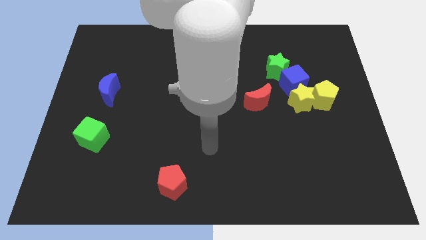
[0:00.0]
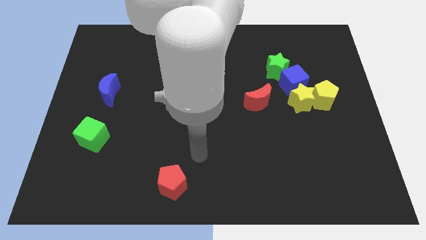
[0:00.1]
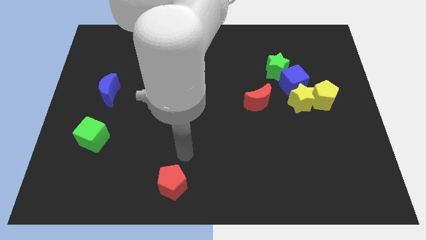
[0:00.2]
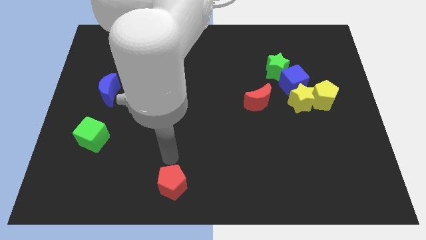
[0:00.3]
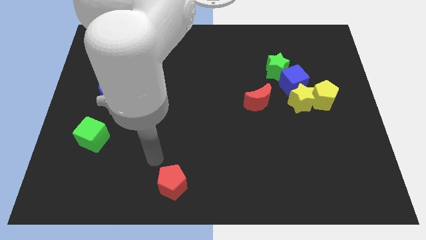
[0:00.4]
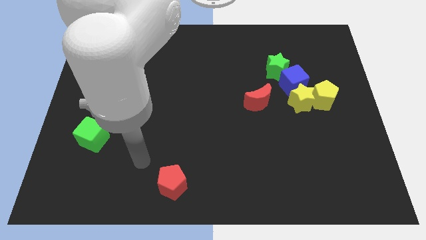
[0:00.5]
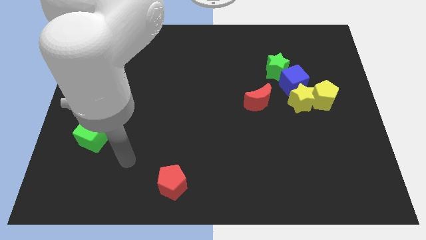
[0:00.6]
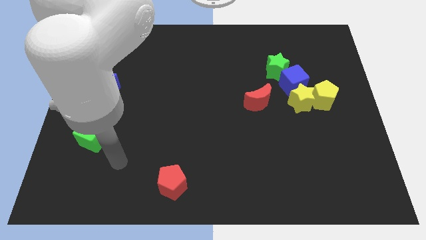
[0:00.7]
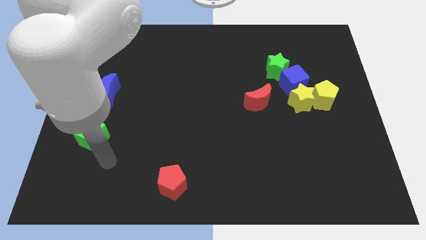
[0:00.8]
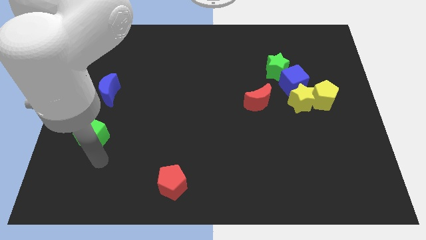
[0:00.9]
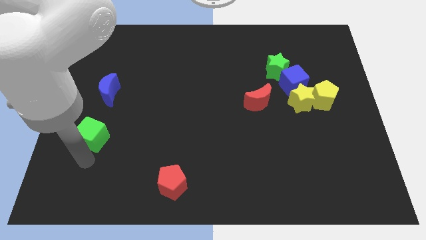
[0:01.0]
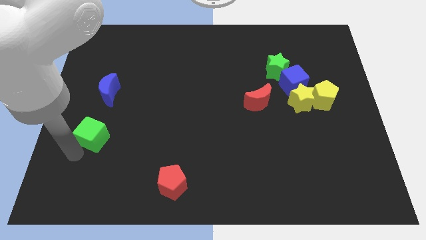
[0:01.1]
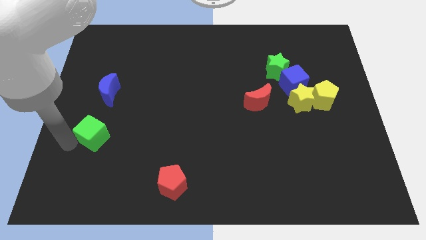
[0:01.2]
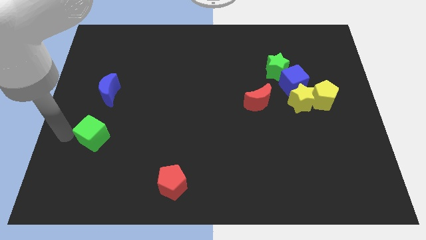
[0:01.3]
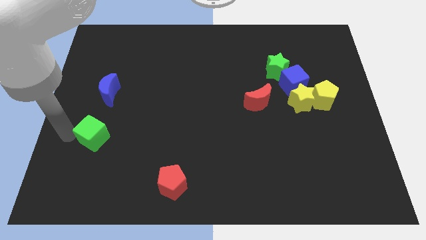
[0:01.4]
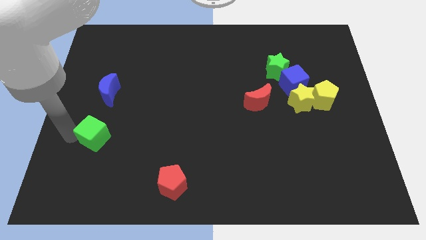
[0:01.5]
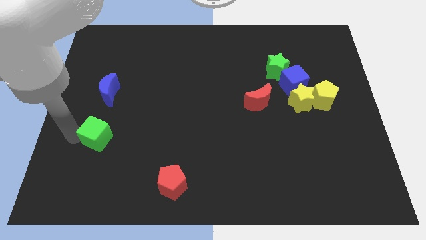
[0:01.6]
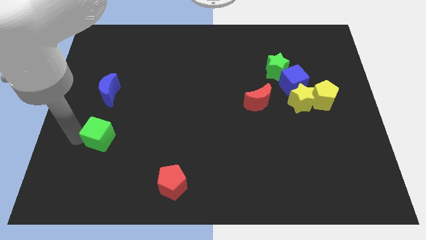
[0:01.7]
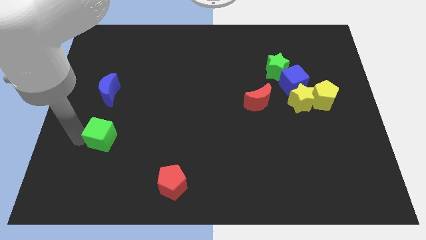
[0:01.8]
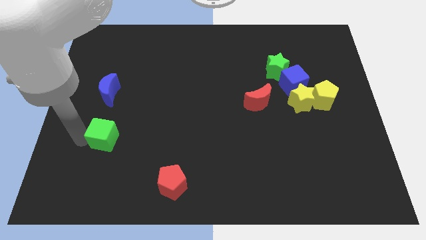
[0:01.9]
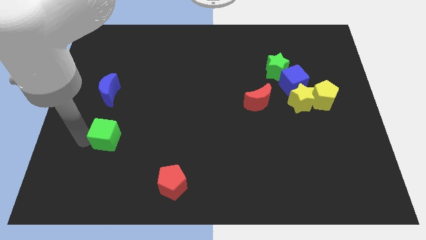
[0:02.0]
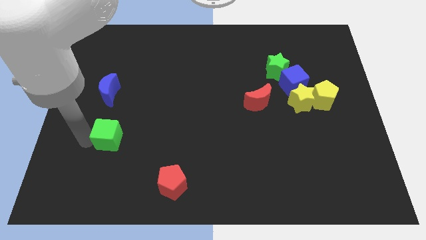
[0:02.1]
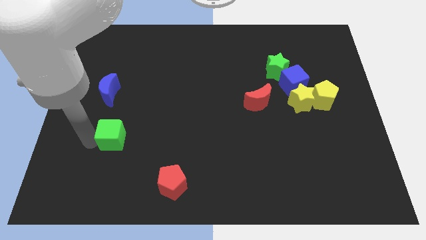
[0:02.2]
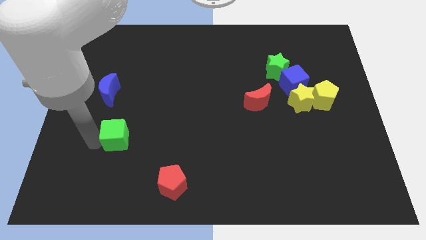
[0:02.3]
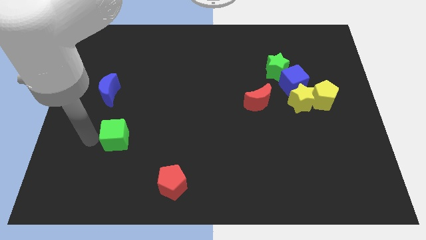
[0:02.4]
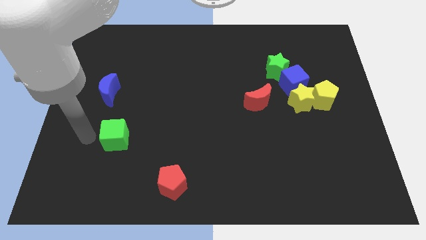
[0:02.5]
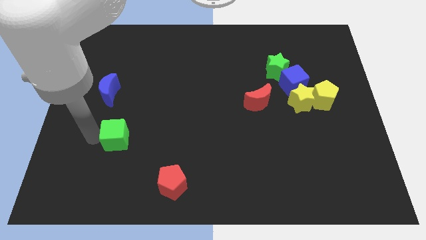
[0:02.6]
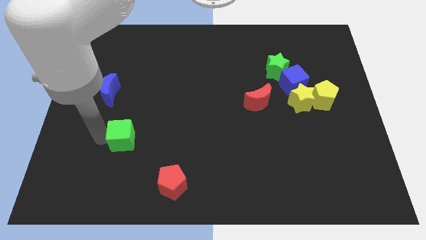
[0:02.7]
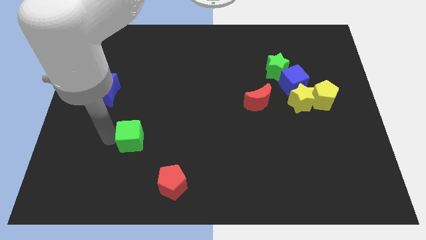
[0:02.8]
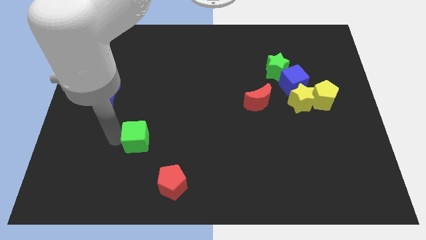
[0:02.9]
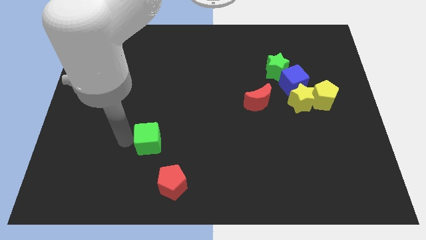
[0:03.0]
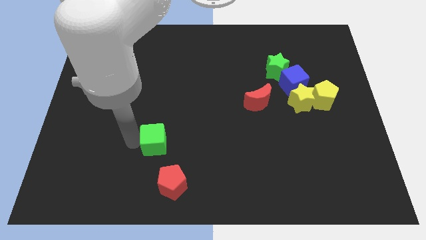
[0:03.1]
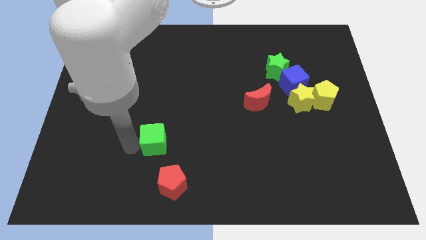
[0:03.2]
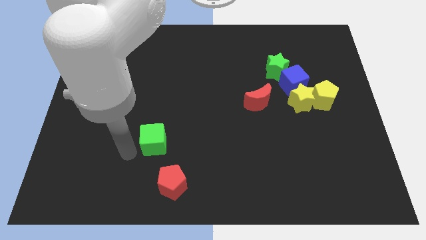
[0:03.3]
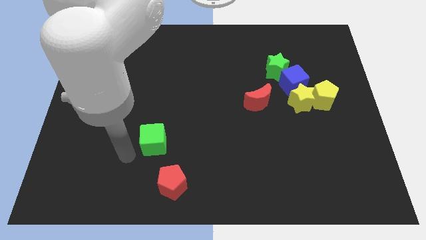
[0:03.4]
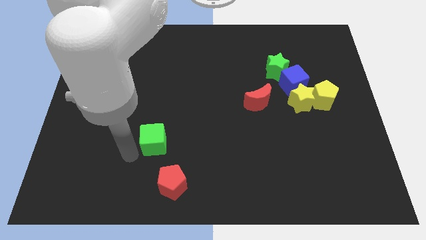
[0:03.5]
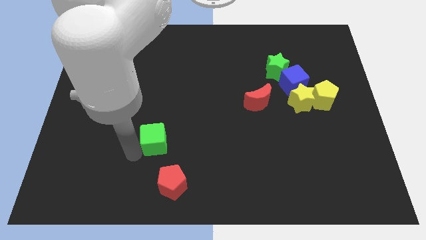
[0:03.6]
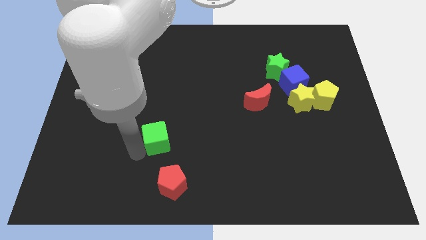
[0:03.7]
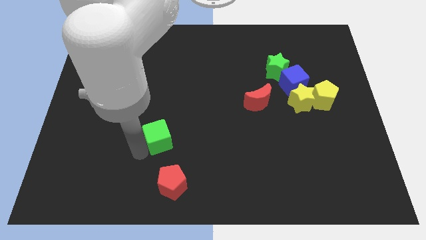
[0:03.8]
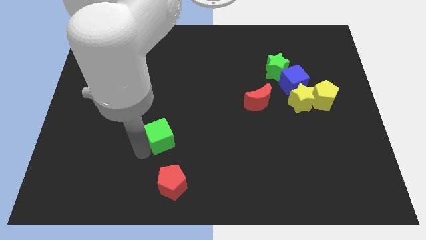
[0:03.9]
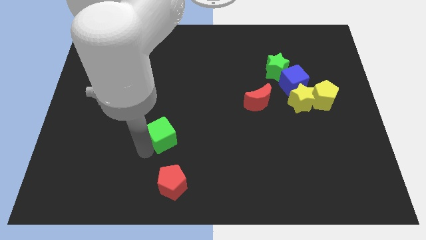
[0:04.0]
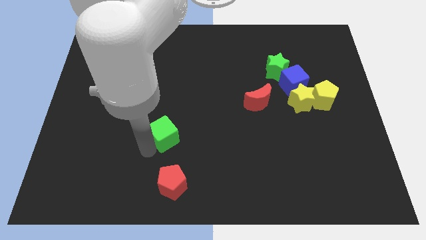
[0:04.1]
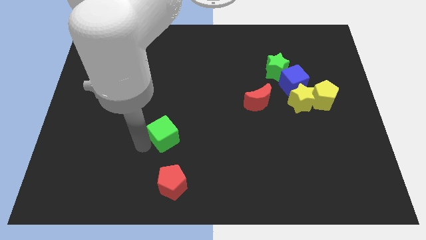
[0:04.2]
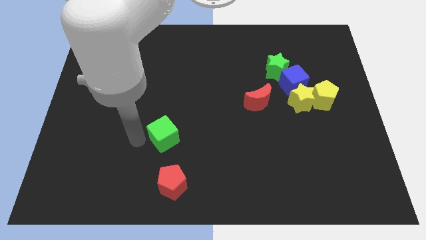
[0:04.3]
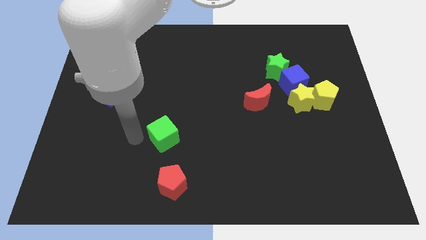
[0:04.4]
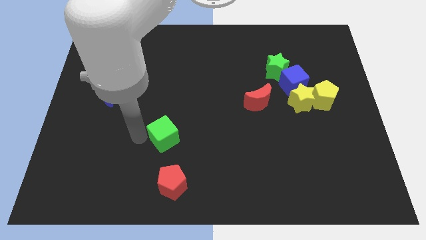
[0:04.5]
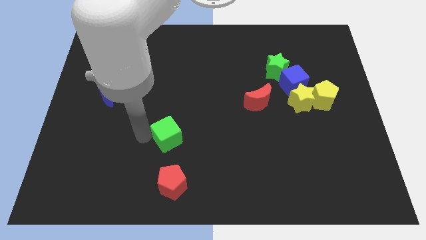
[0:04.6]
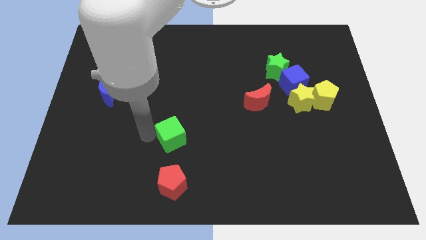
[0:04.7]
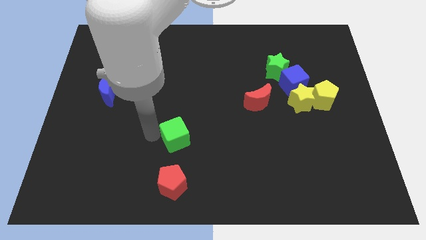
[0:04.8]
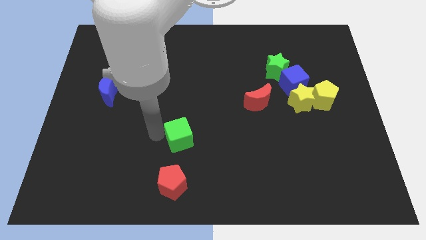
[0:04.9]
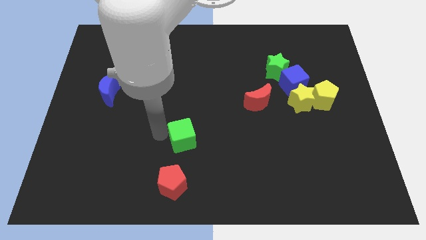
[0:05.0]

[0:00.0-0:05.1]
move the green cube right

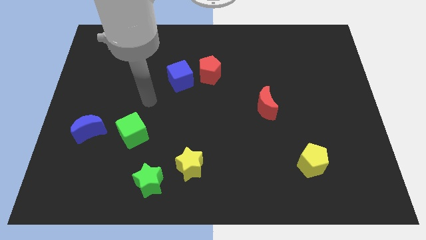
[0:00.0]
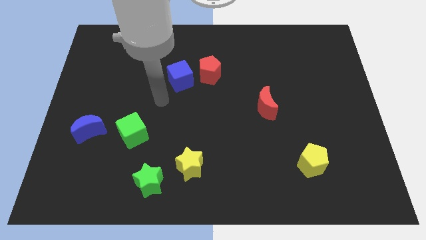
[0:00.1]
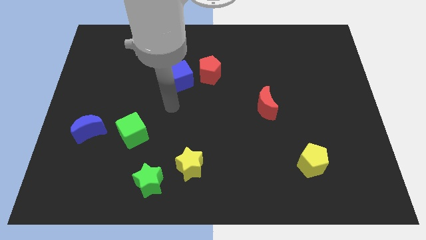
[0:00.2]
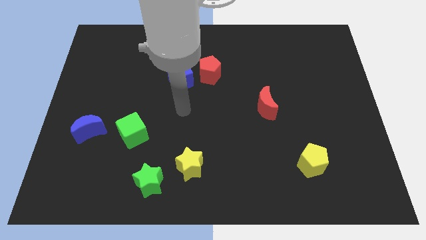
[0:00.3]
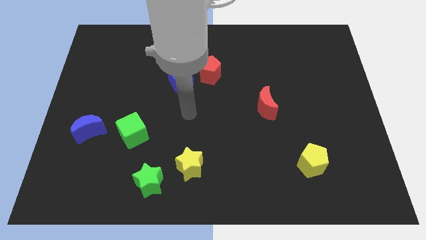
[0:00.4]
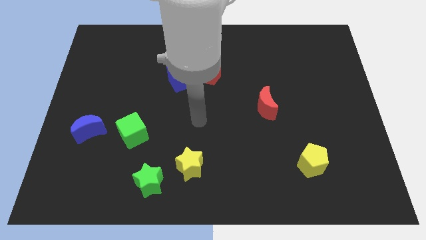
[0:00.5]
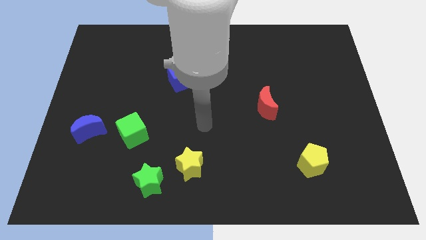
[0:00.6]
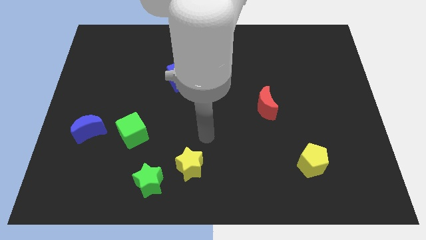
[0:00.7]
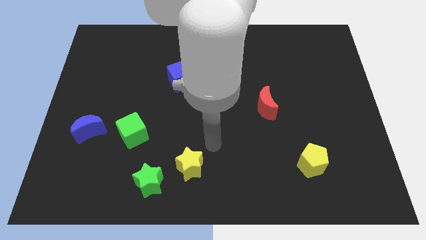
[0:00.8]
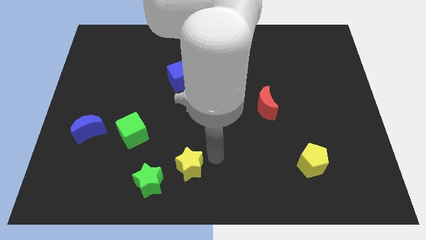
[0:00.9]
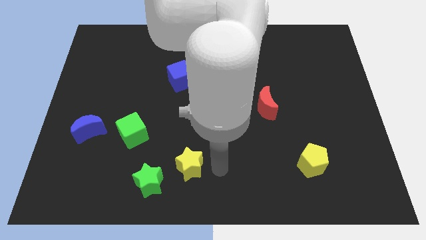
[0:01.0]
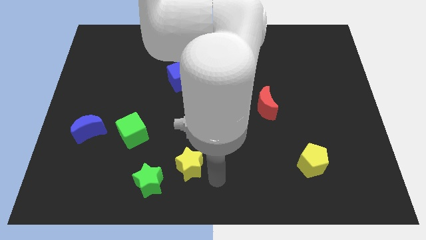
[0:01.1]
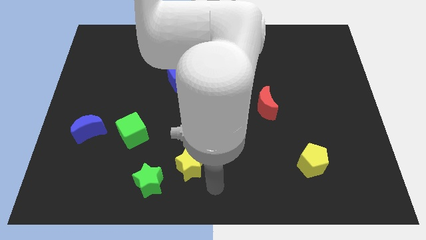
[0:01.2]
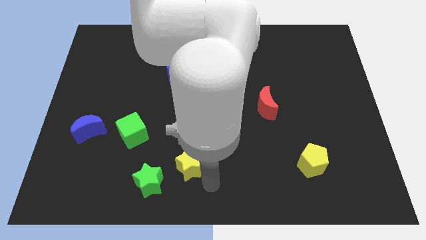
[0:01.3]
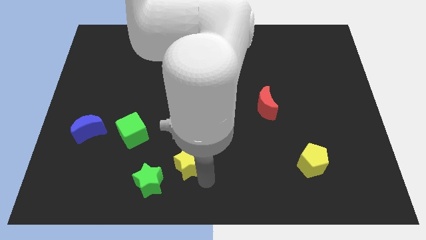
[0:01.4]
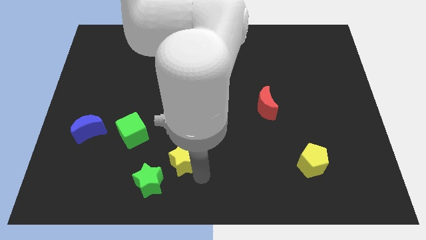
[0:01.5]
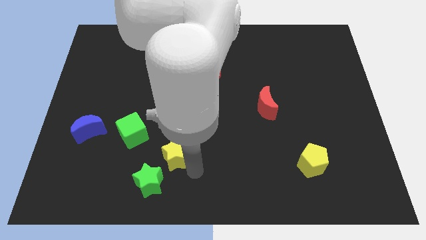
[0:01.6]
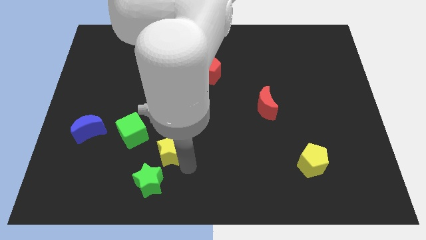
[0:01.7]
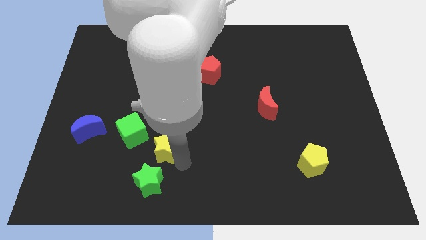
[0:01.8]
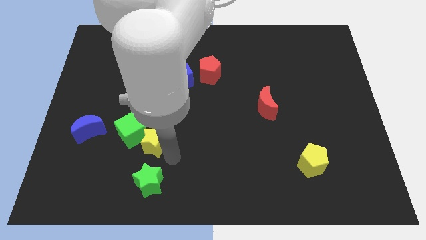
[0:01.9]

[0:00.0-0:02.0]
slightly slide the yellow star upwards and then to the left

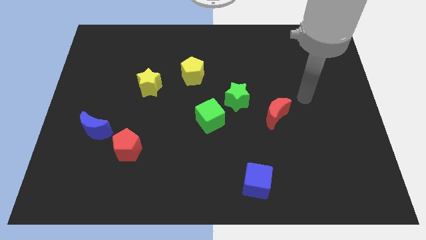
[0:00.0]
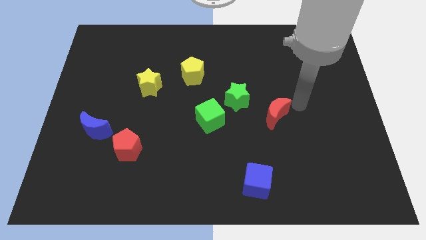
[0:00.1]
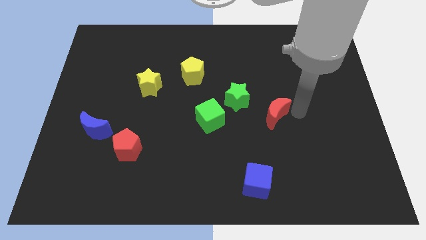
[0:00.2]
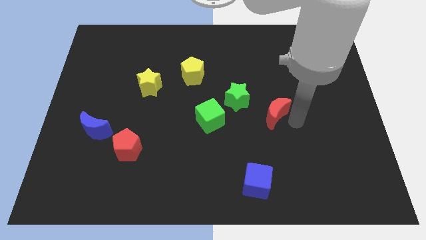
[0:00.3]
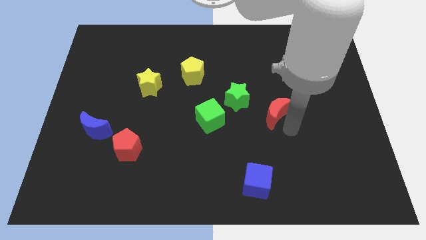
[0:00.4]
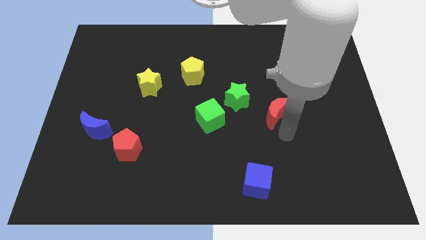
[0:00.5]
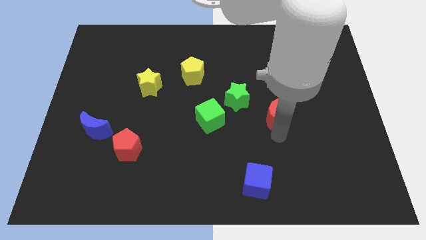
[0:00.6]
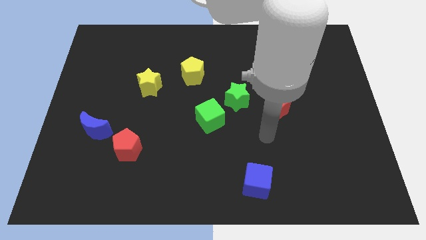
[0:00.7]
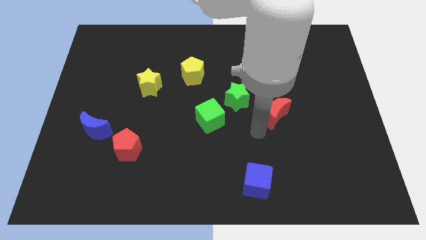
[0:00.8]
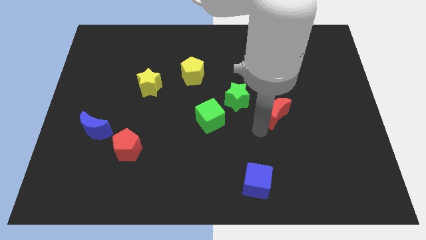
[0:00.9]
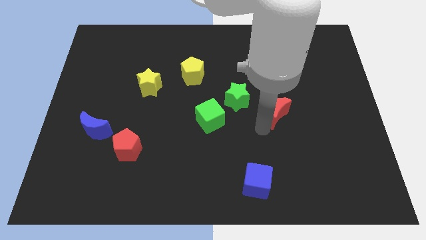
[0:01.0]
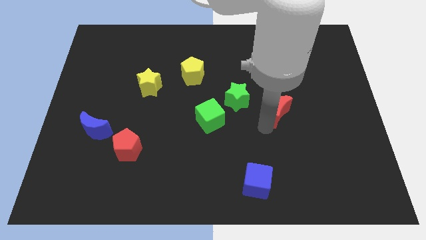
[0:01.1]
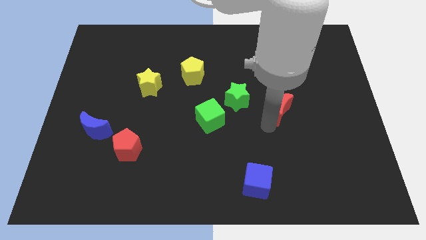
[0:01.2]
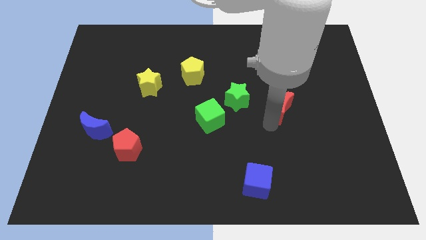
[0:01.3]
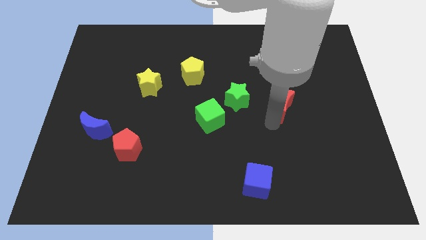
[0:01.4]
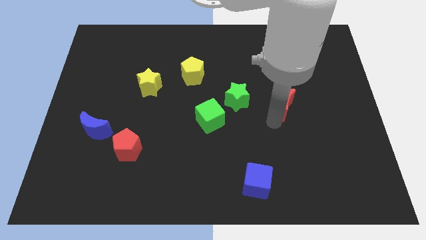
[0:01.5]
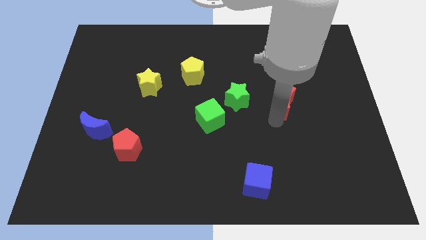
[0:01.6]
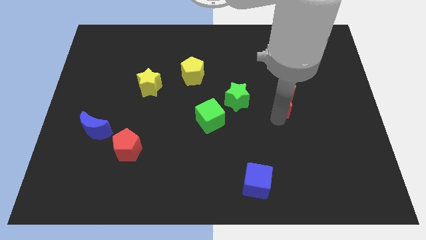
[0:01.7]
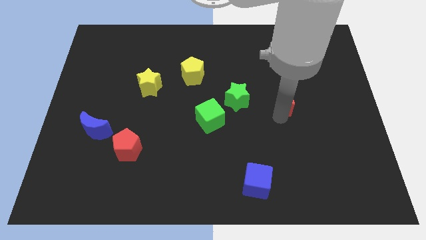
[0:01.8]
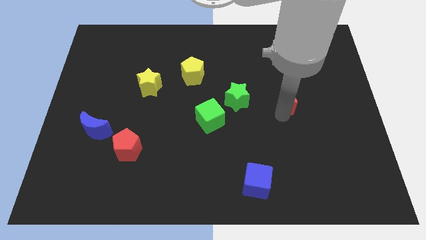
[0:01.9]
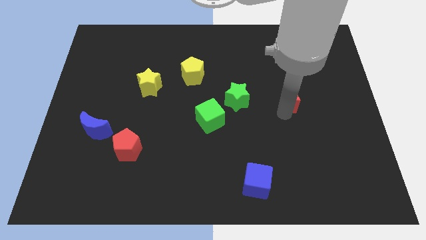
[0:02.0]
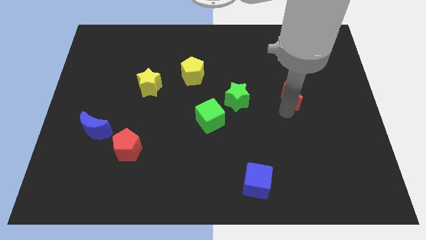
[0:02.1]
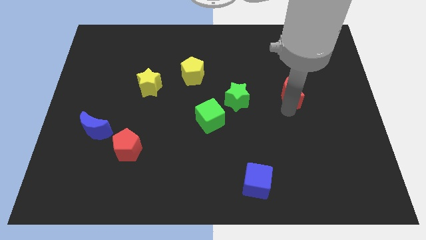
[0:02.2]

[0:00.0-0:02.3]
slide the red moon up and right slightly
